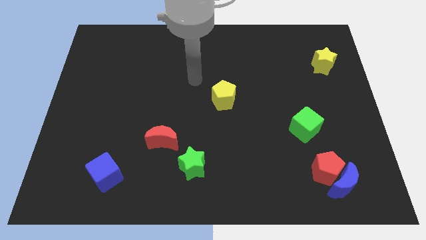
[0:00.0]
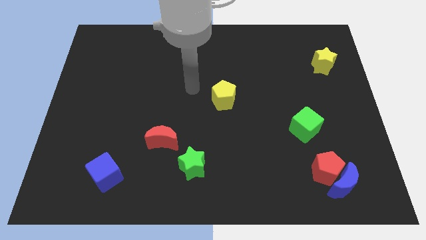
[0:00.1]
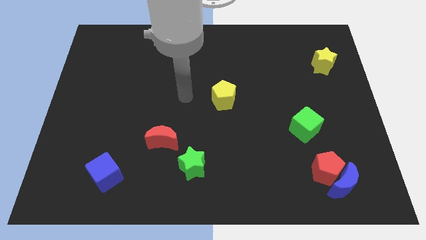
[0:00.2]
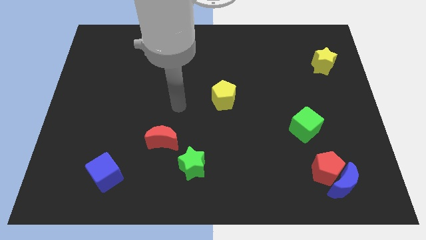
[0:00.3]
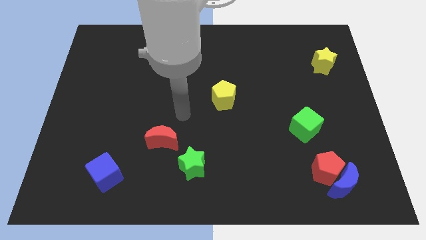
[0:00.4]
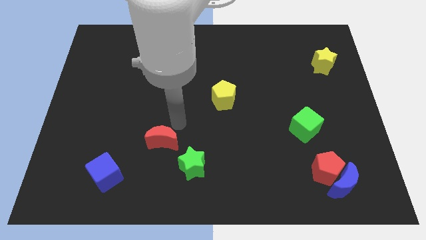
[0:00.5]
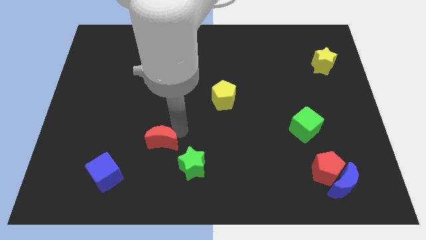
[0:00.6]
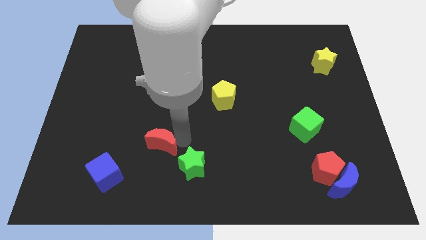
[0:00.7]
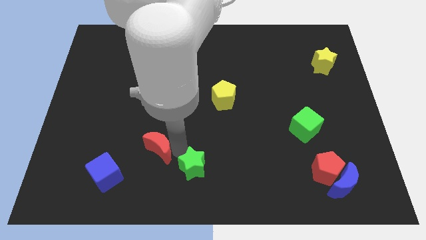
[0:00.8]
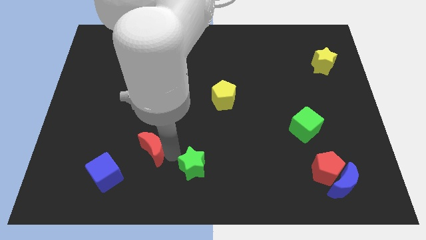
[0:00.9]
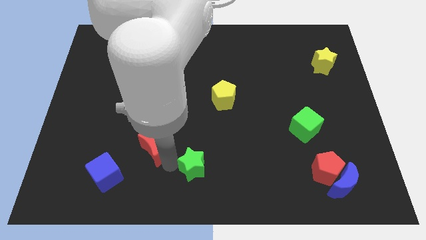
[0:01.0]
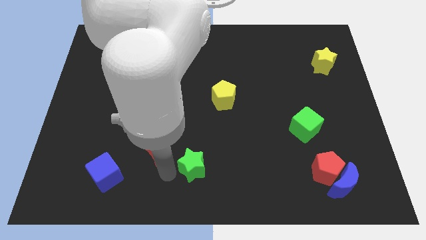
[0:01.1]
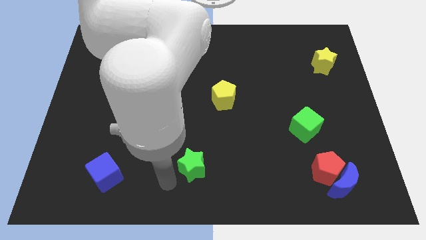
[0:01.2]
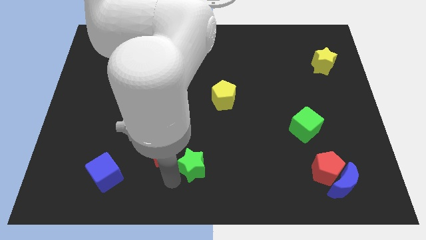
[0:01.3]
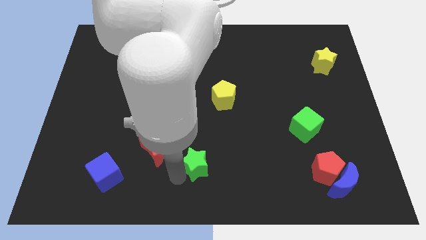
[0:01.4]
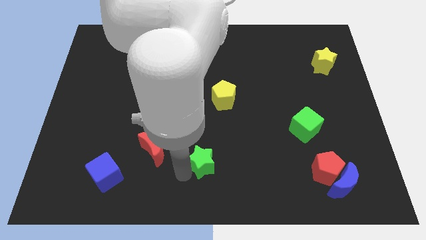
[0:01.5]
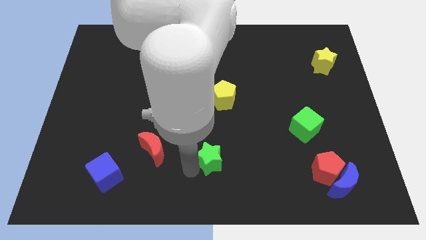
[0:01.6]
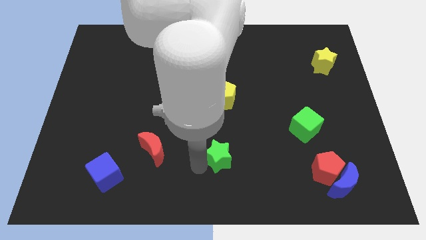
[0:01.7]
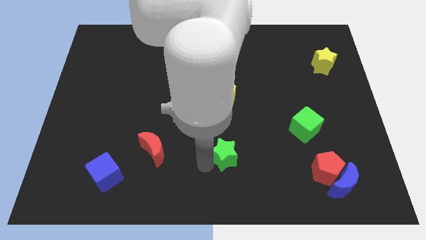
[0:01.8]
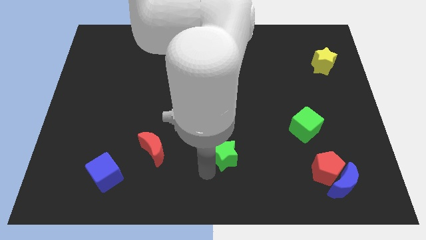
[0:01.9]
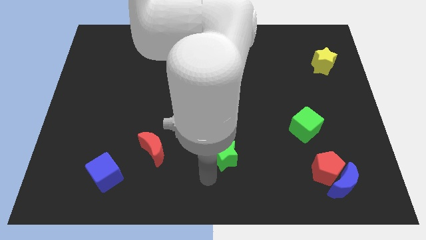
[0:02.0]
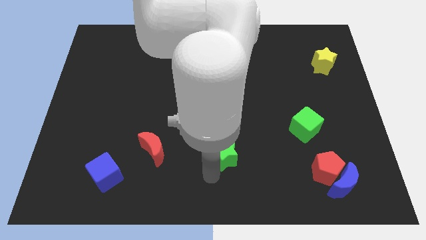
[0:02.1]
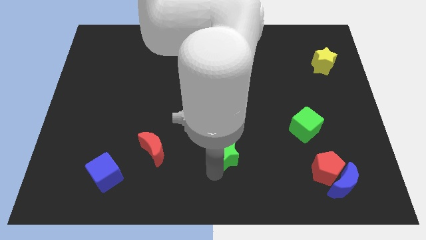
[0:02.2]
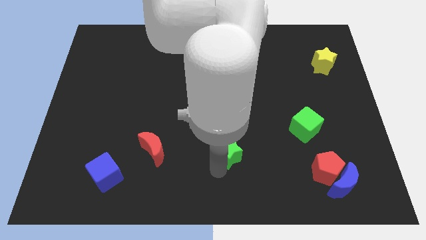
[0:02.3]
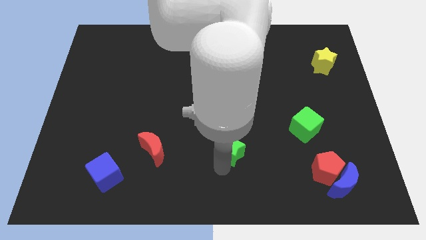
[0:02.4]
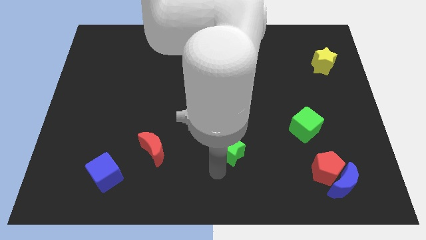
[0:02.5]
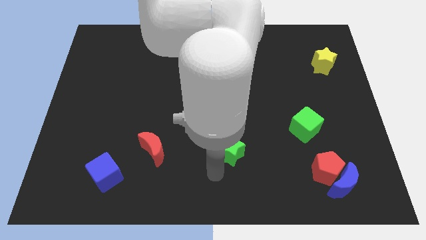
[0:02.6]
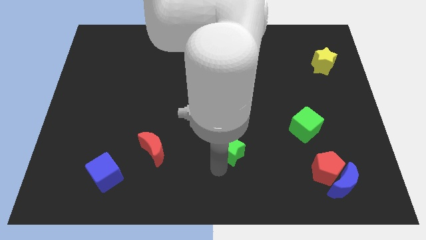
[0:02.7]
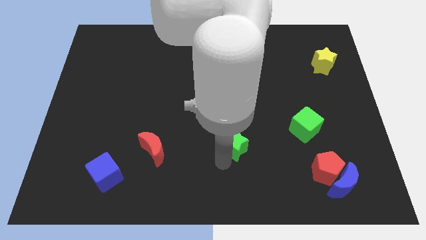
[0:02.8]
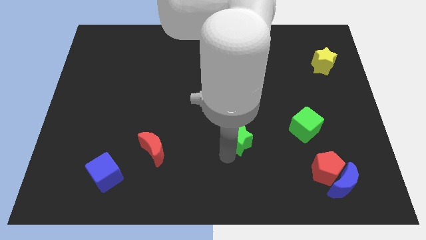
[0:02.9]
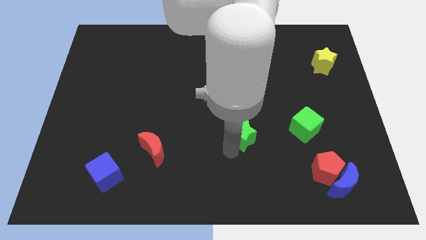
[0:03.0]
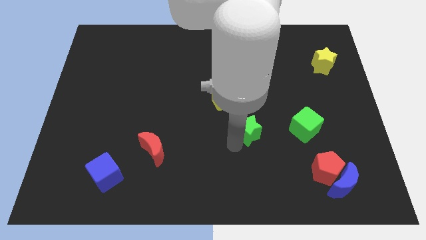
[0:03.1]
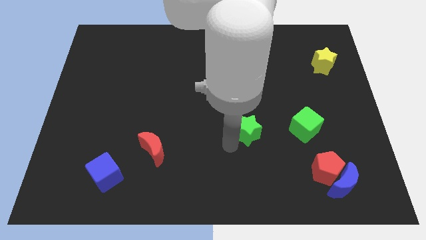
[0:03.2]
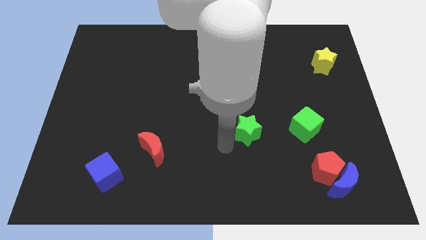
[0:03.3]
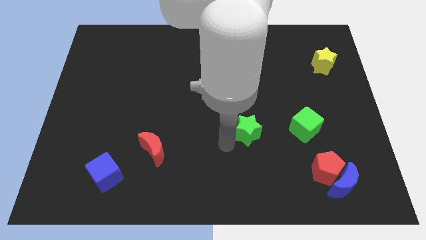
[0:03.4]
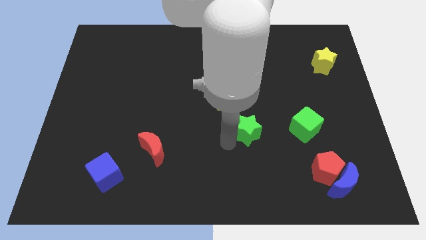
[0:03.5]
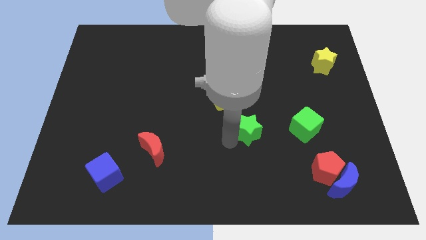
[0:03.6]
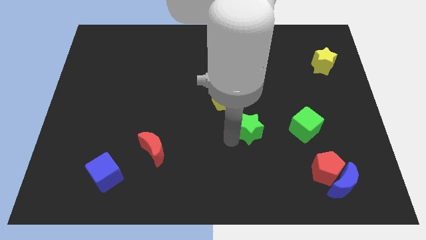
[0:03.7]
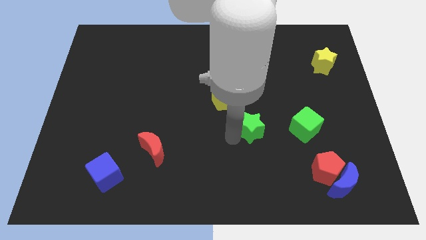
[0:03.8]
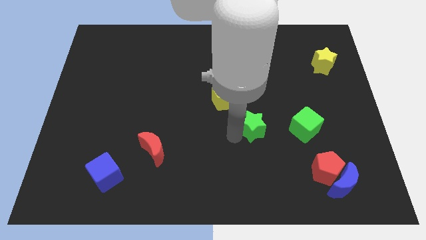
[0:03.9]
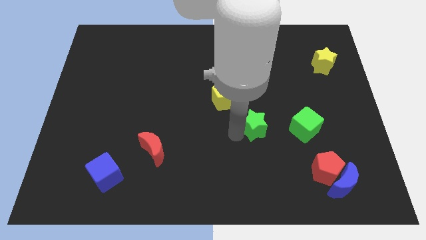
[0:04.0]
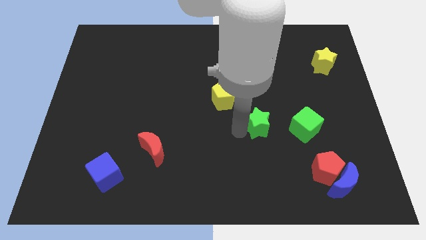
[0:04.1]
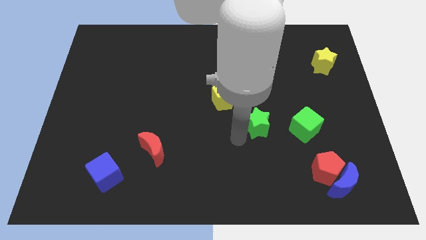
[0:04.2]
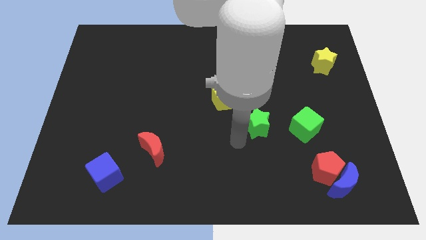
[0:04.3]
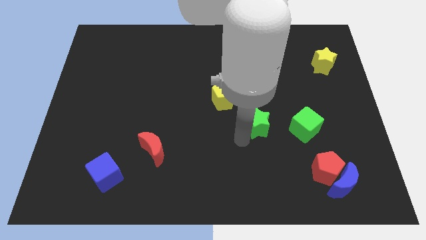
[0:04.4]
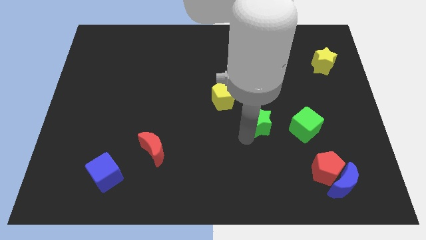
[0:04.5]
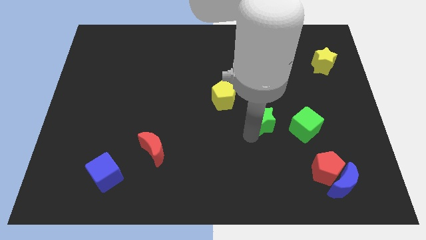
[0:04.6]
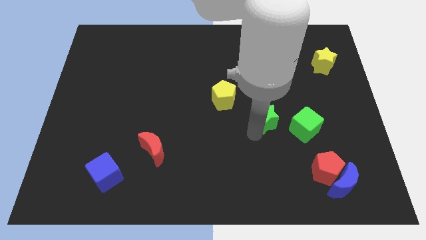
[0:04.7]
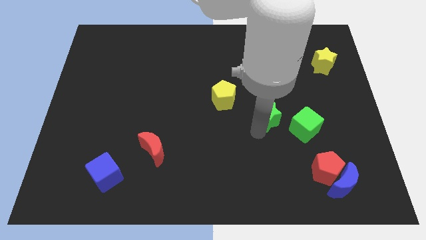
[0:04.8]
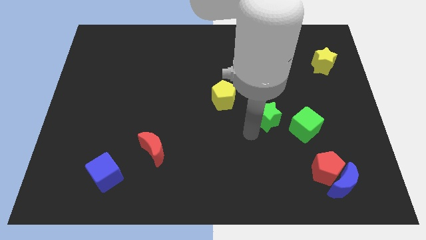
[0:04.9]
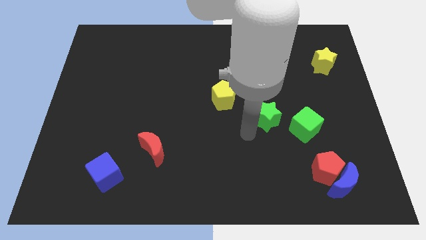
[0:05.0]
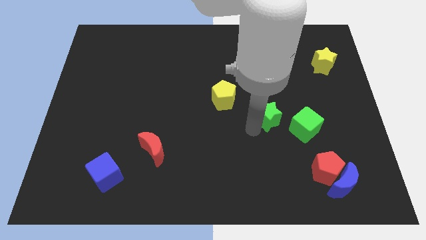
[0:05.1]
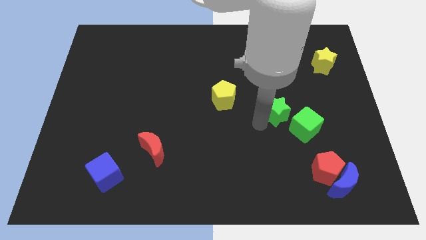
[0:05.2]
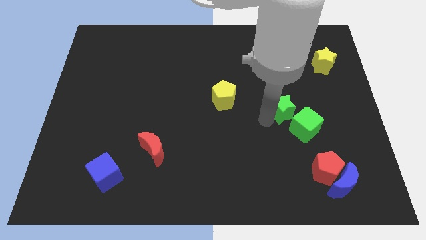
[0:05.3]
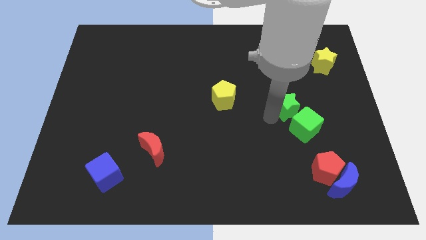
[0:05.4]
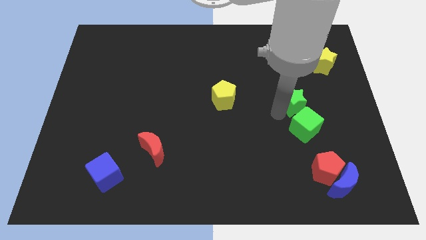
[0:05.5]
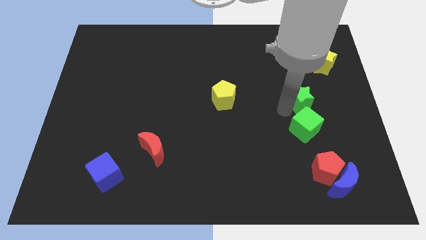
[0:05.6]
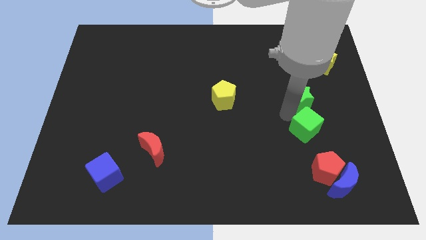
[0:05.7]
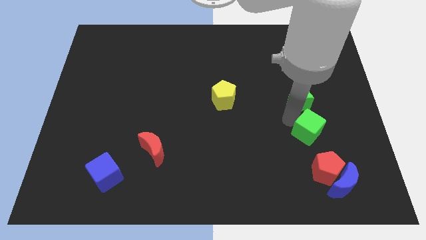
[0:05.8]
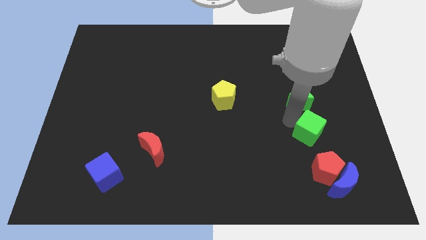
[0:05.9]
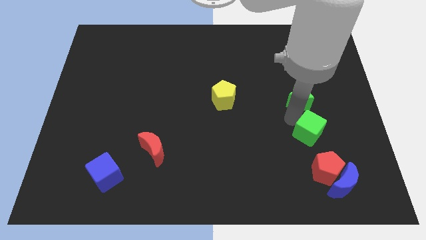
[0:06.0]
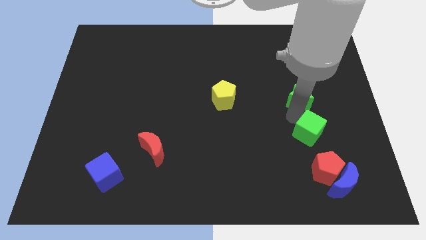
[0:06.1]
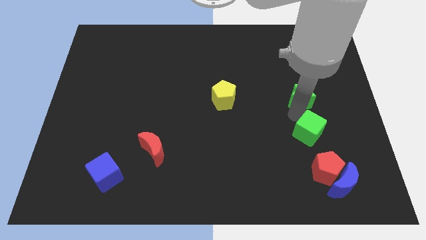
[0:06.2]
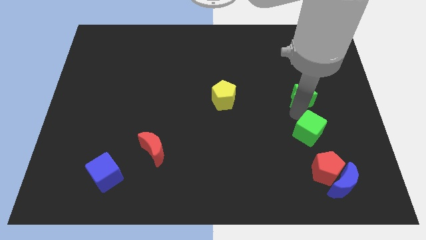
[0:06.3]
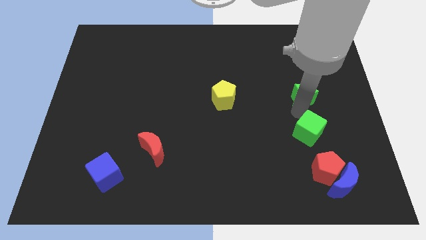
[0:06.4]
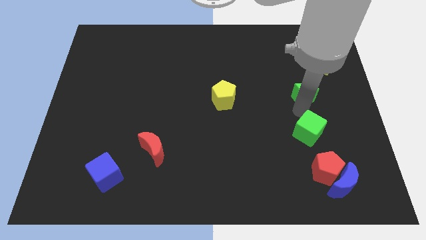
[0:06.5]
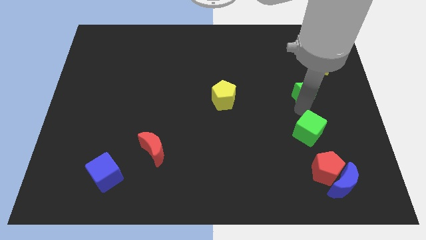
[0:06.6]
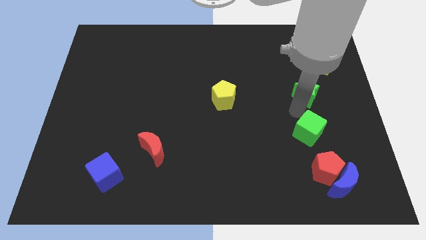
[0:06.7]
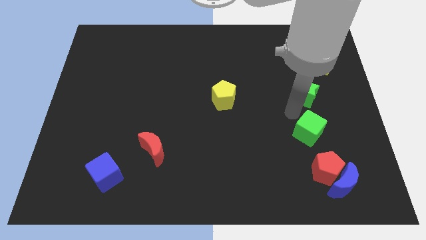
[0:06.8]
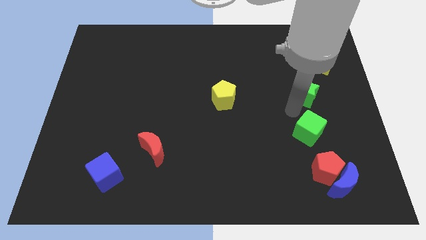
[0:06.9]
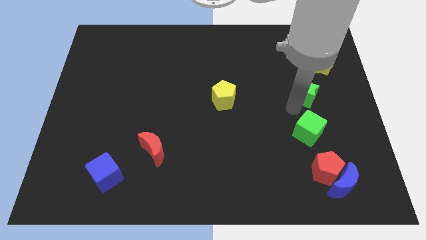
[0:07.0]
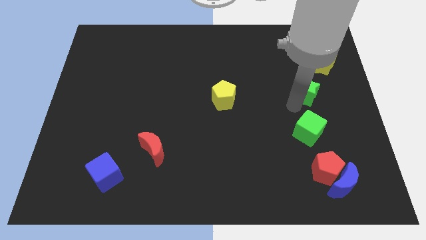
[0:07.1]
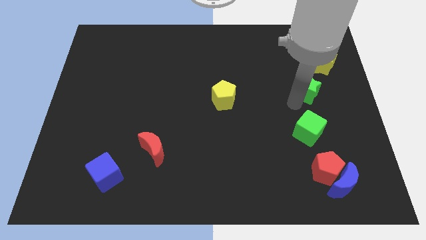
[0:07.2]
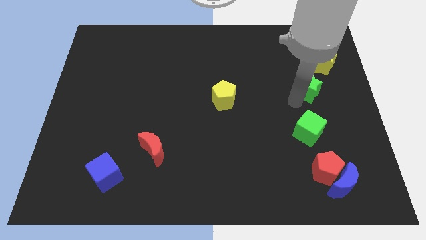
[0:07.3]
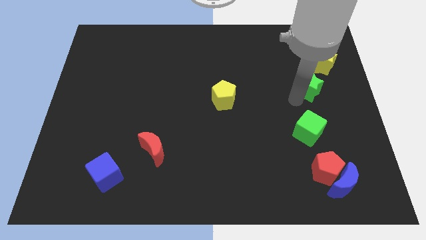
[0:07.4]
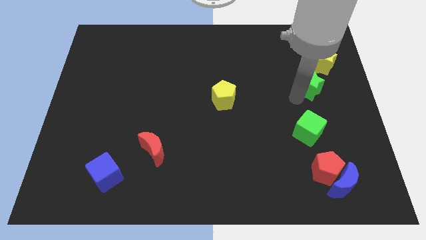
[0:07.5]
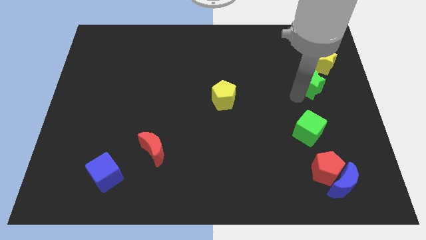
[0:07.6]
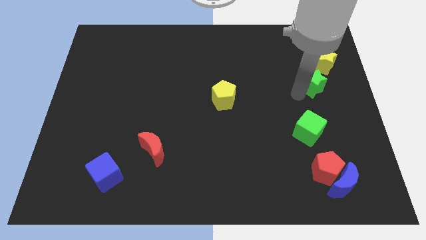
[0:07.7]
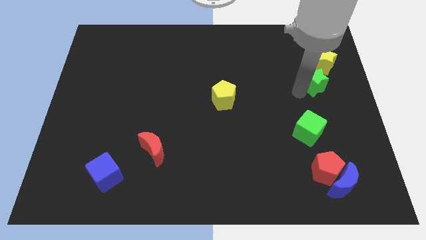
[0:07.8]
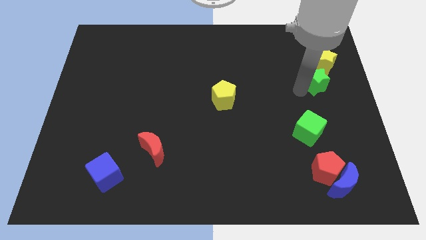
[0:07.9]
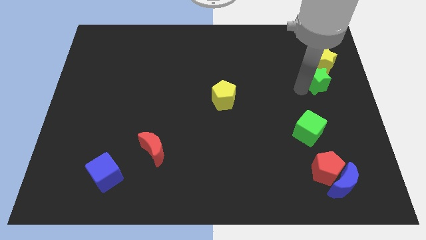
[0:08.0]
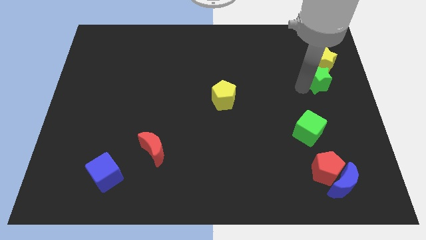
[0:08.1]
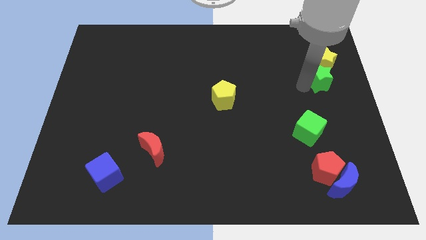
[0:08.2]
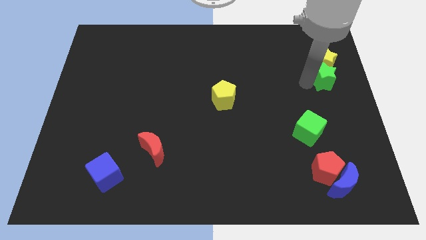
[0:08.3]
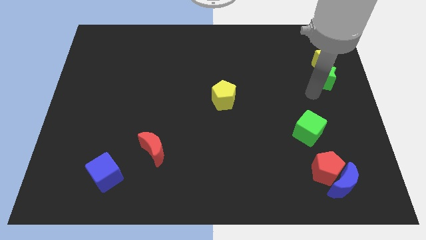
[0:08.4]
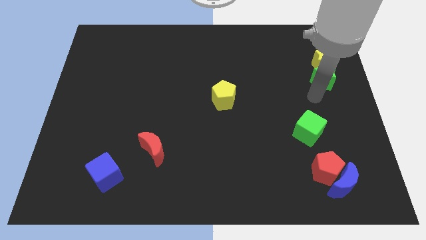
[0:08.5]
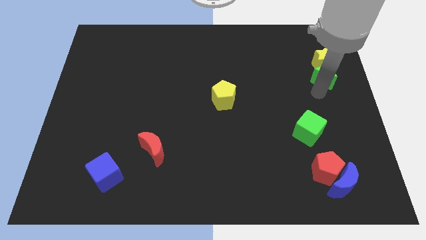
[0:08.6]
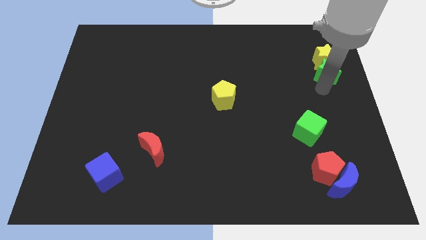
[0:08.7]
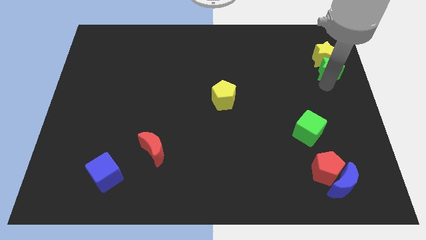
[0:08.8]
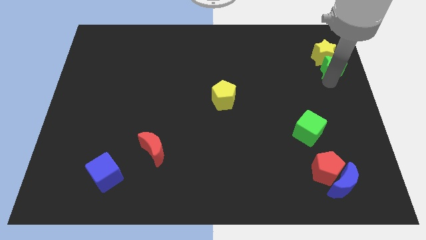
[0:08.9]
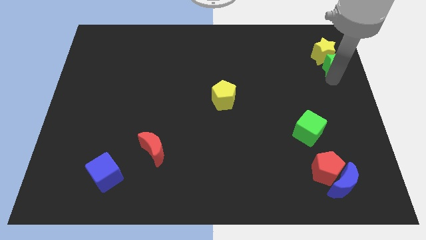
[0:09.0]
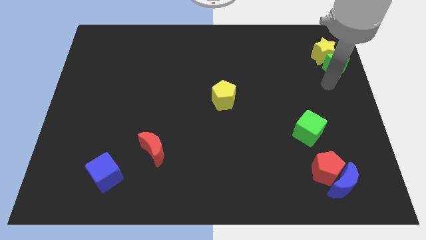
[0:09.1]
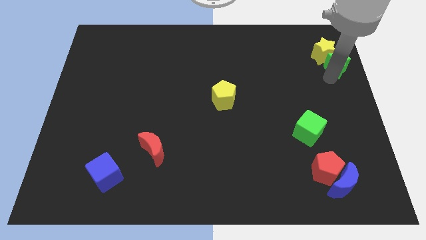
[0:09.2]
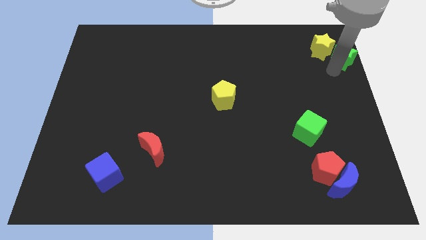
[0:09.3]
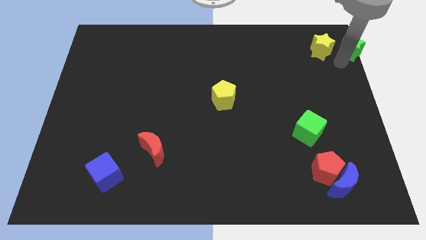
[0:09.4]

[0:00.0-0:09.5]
slide the green star to the top right corner
